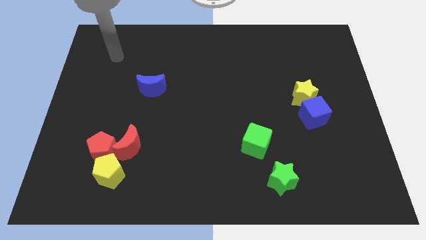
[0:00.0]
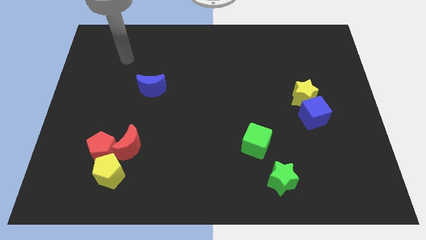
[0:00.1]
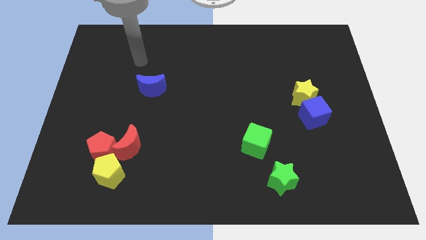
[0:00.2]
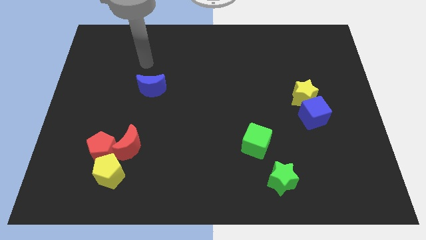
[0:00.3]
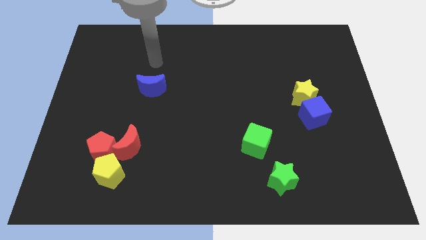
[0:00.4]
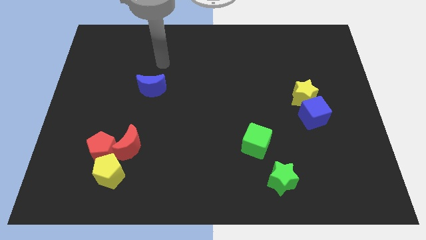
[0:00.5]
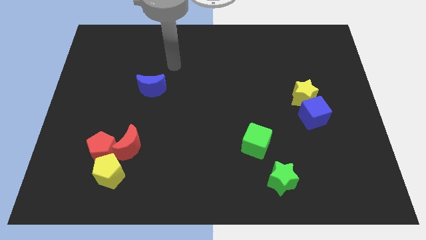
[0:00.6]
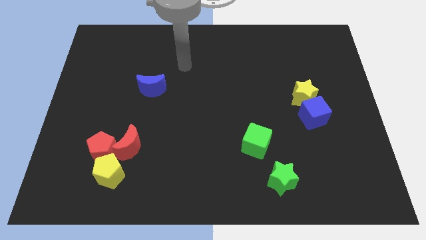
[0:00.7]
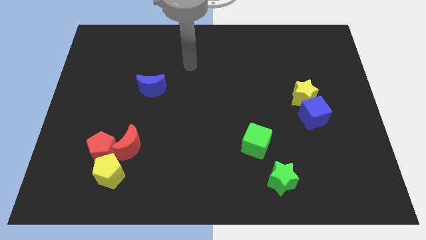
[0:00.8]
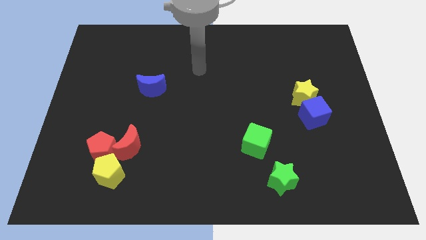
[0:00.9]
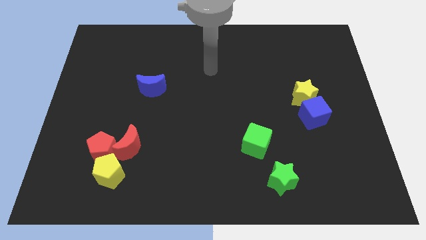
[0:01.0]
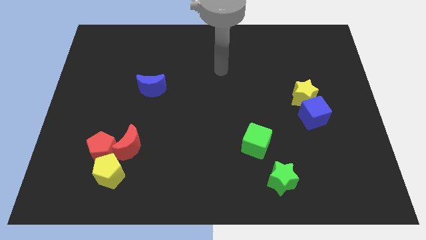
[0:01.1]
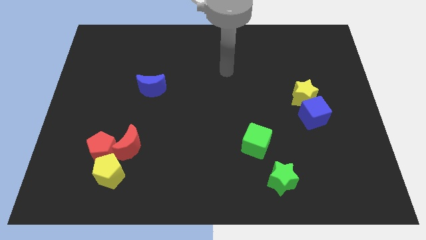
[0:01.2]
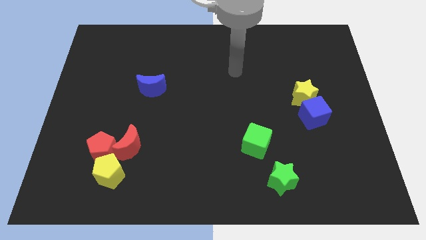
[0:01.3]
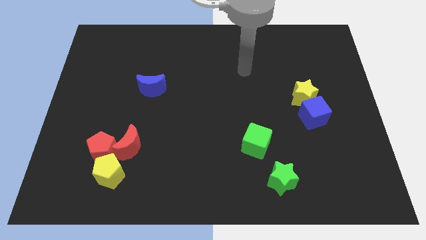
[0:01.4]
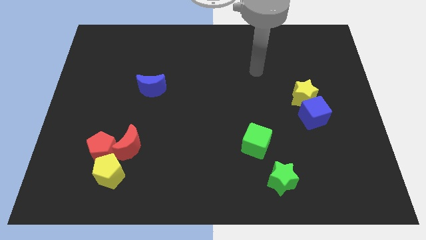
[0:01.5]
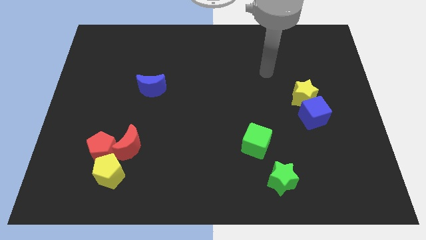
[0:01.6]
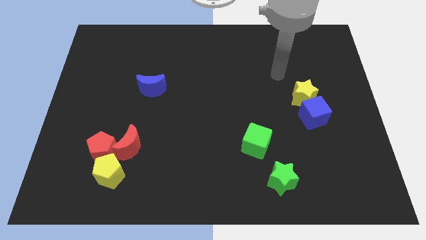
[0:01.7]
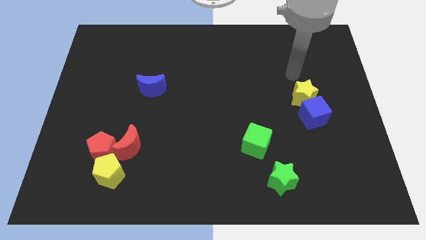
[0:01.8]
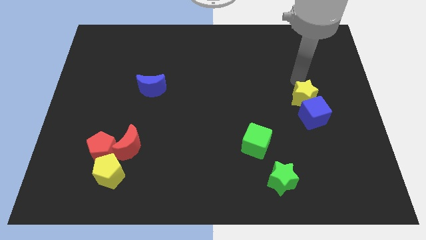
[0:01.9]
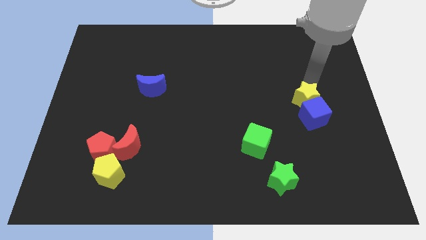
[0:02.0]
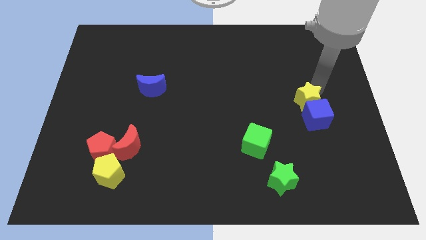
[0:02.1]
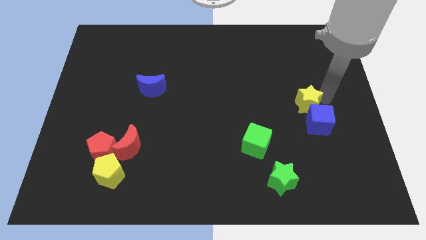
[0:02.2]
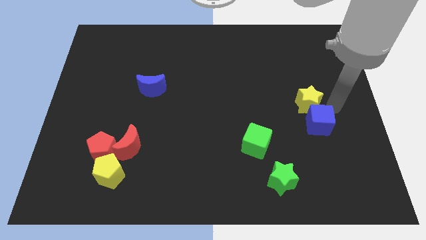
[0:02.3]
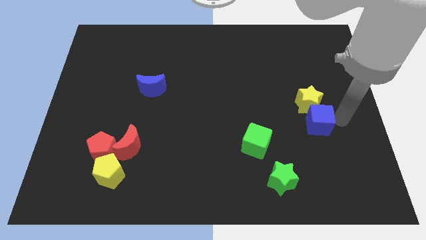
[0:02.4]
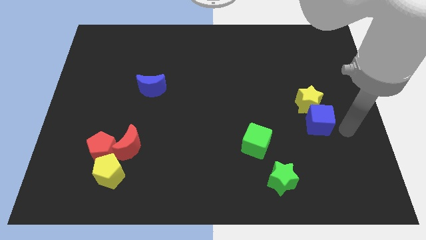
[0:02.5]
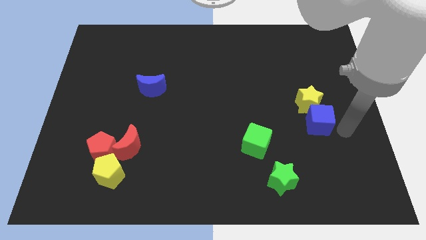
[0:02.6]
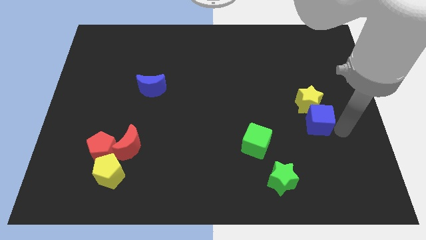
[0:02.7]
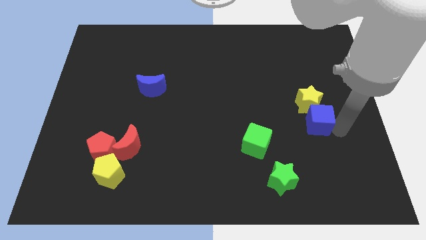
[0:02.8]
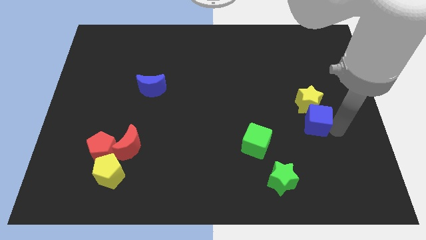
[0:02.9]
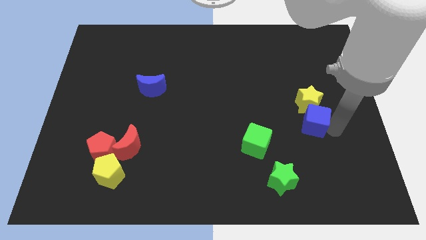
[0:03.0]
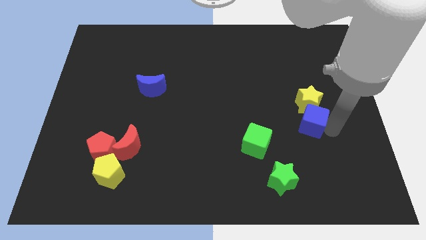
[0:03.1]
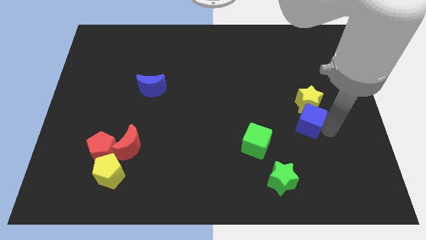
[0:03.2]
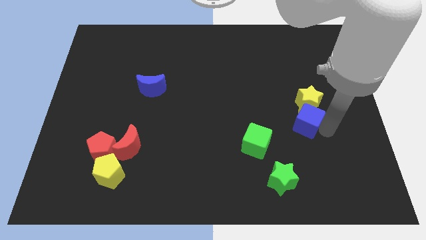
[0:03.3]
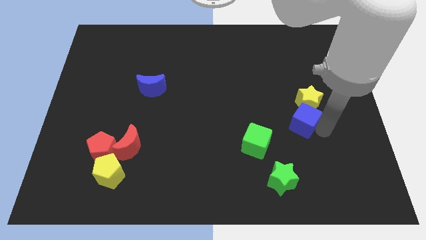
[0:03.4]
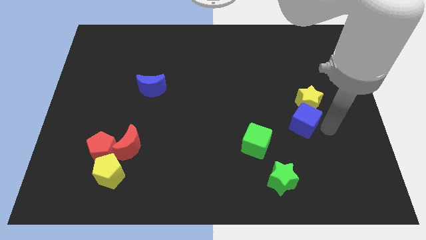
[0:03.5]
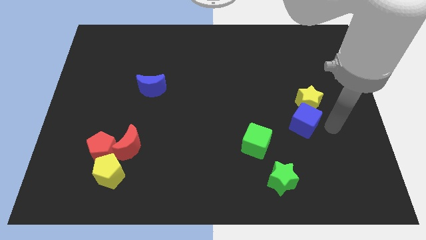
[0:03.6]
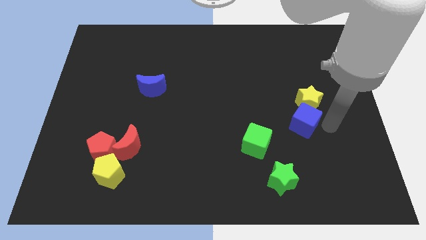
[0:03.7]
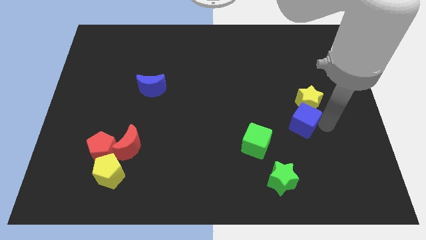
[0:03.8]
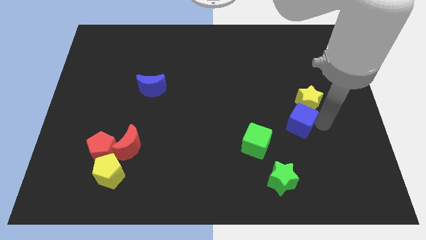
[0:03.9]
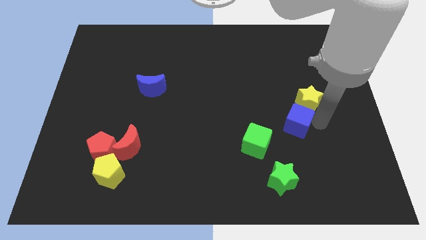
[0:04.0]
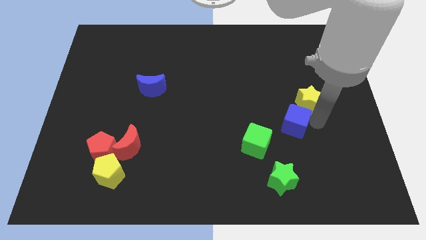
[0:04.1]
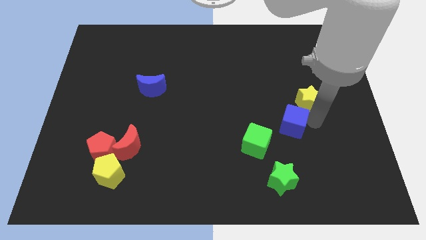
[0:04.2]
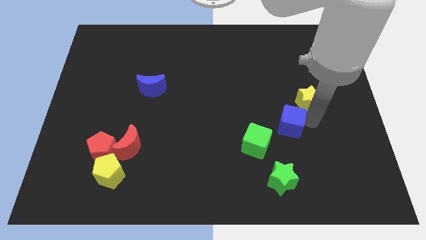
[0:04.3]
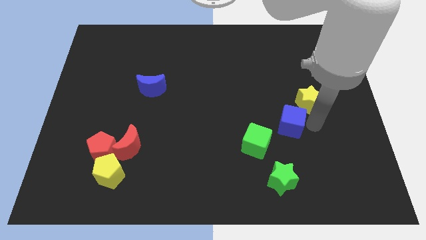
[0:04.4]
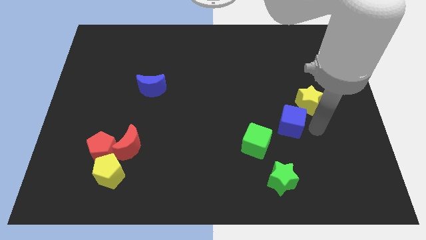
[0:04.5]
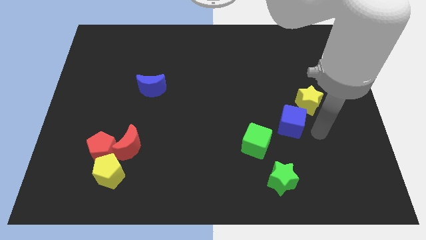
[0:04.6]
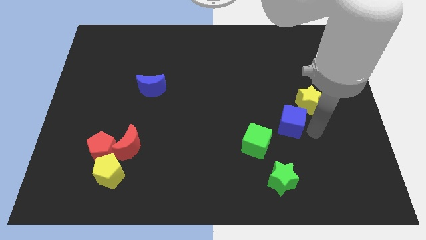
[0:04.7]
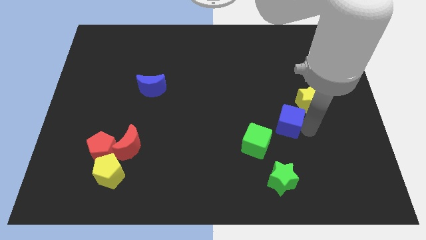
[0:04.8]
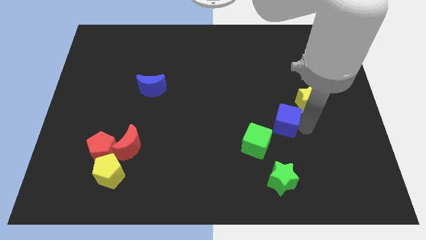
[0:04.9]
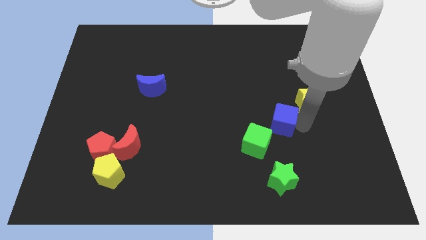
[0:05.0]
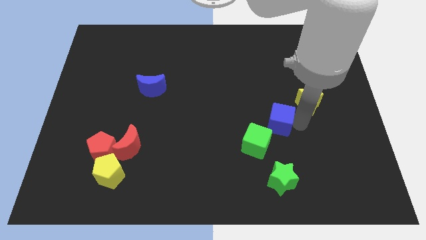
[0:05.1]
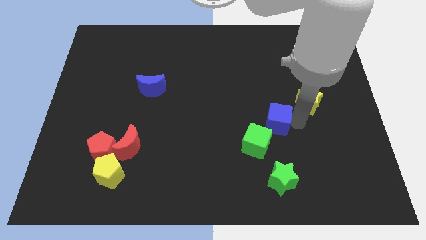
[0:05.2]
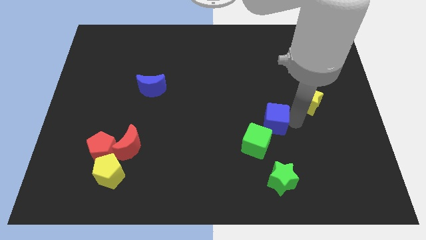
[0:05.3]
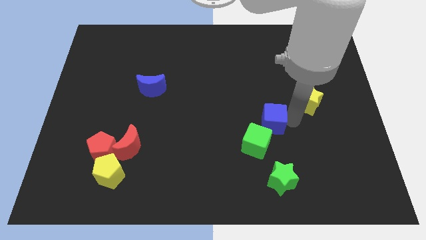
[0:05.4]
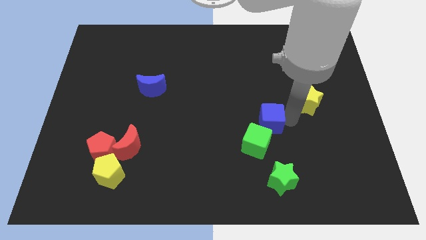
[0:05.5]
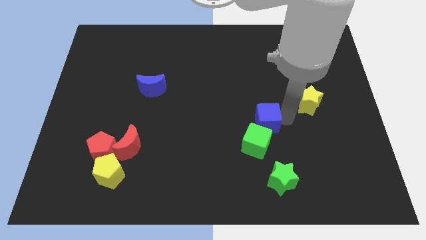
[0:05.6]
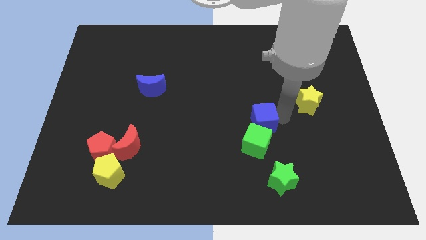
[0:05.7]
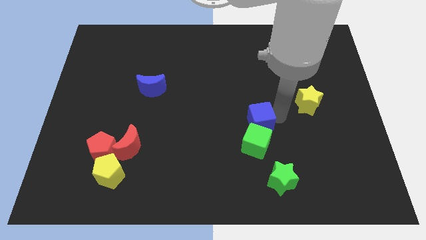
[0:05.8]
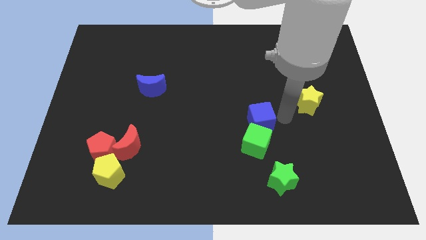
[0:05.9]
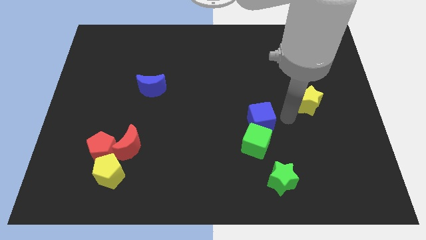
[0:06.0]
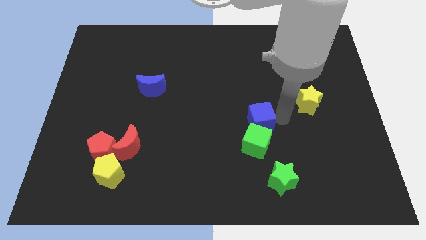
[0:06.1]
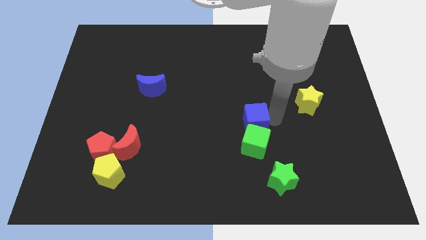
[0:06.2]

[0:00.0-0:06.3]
put the blue cube to the top left side of the green cube

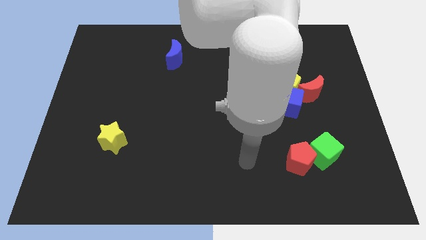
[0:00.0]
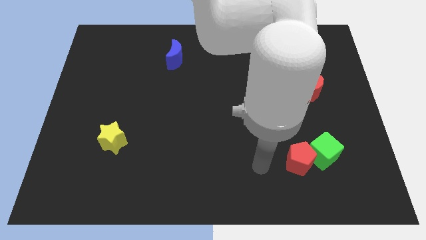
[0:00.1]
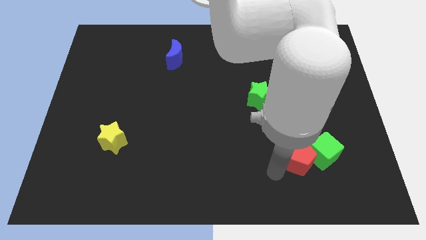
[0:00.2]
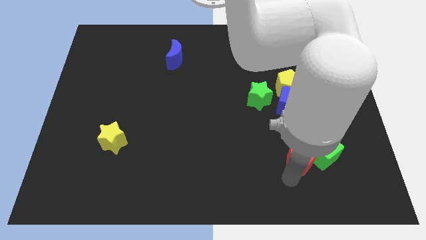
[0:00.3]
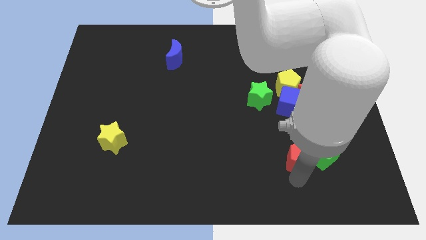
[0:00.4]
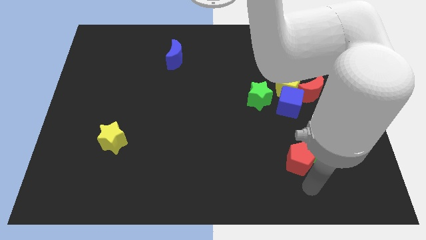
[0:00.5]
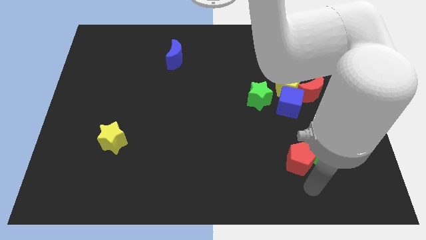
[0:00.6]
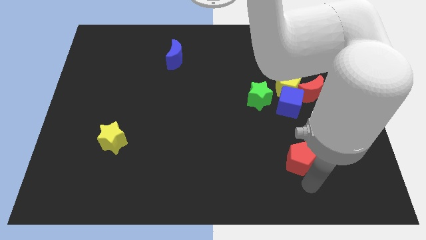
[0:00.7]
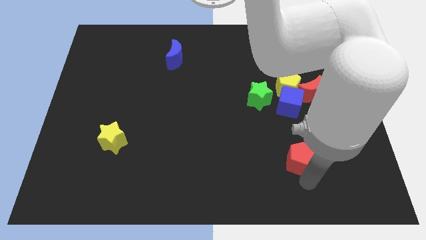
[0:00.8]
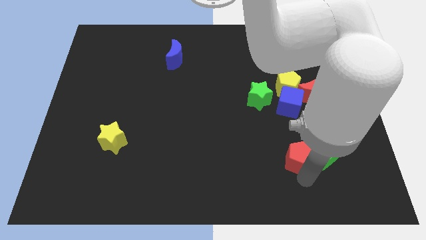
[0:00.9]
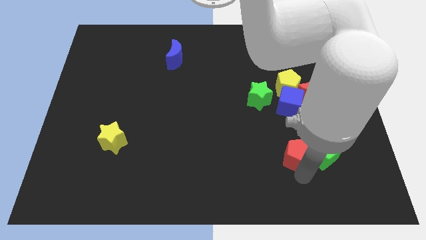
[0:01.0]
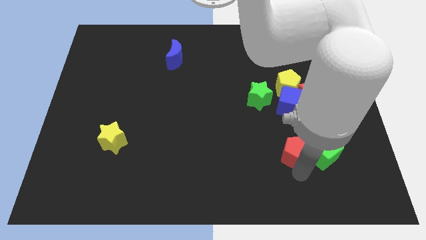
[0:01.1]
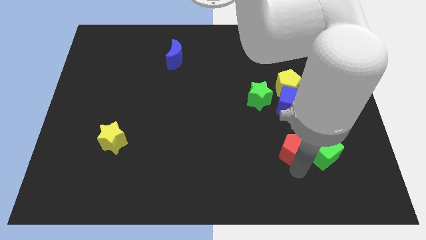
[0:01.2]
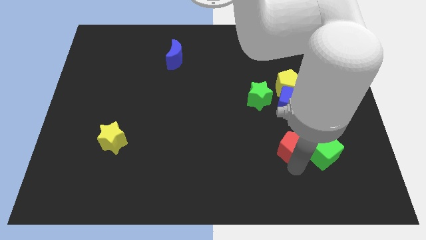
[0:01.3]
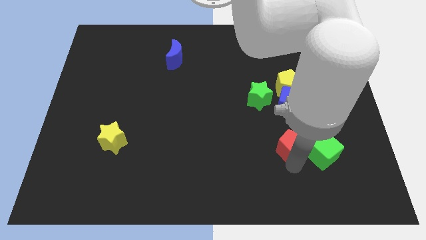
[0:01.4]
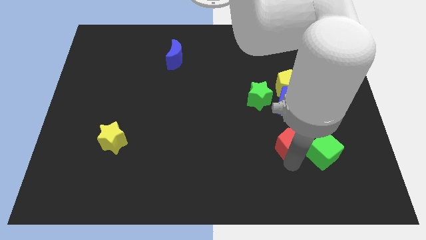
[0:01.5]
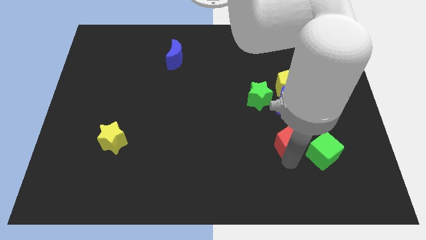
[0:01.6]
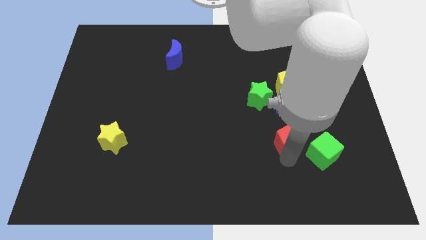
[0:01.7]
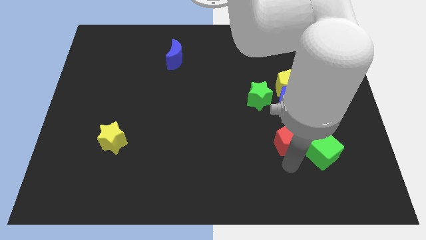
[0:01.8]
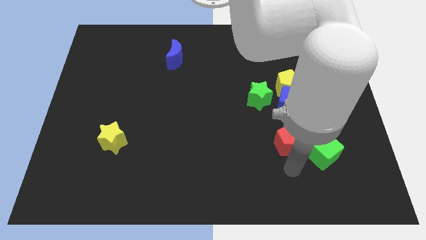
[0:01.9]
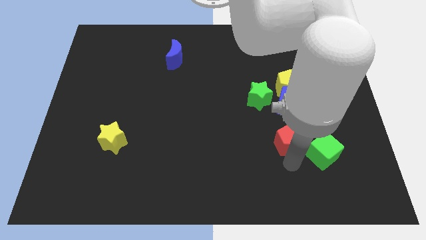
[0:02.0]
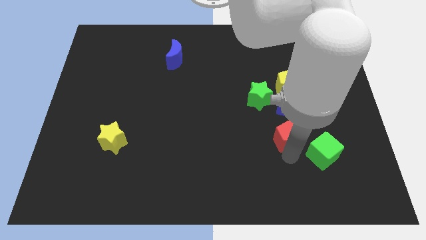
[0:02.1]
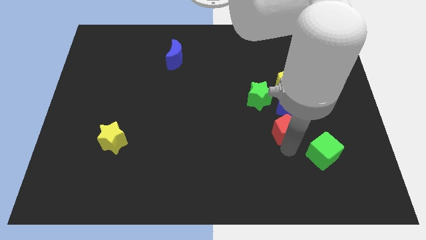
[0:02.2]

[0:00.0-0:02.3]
push the red pentagon to the bottom right side of the green star
